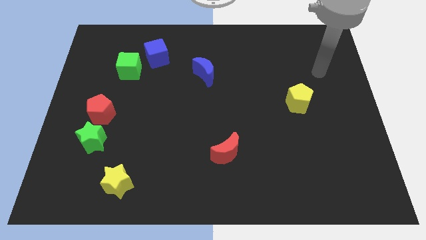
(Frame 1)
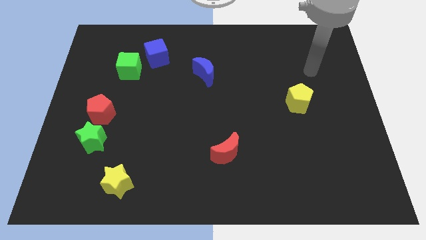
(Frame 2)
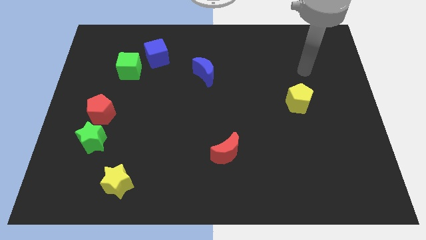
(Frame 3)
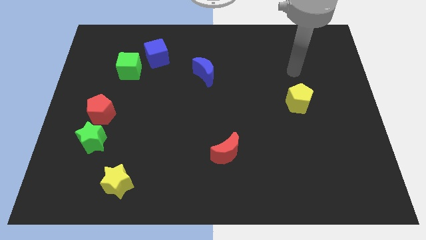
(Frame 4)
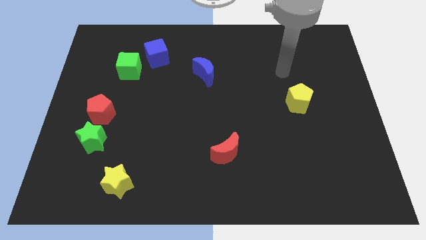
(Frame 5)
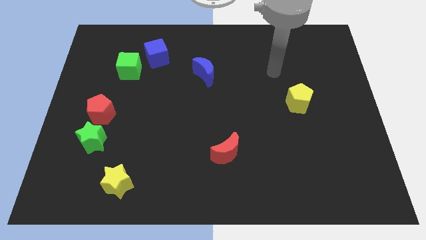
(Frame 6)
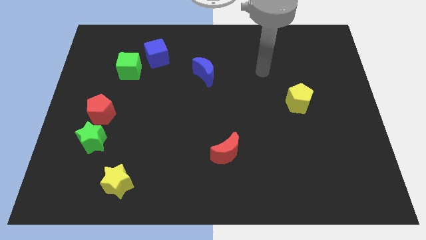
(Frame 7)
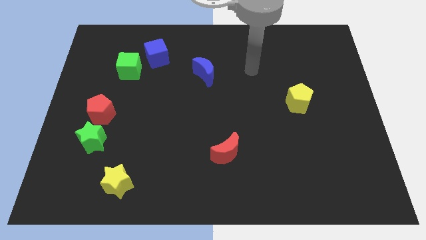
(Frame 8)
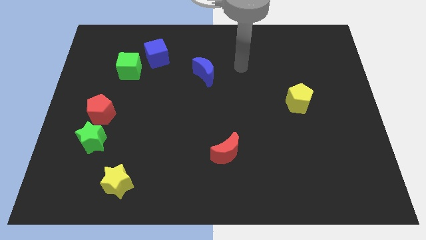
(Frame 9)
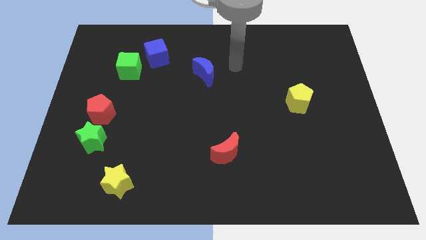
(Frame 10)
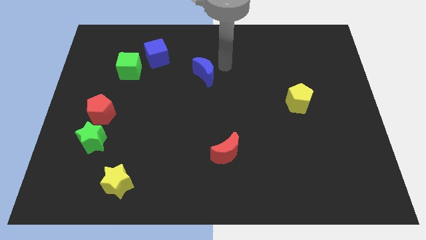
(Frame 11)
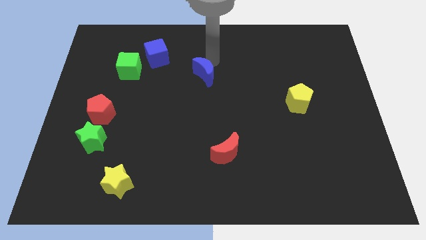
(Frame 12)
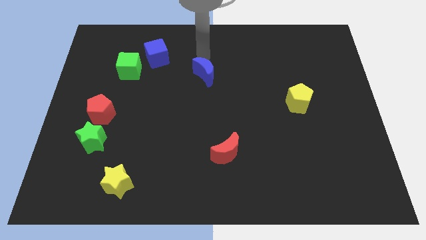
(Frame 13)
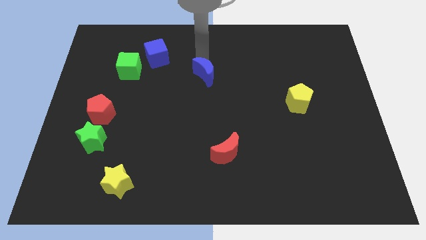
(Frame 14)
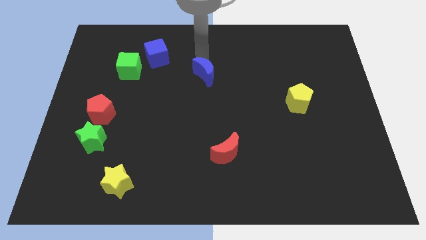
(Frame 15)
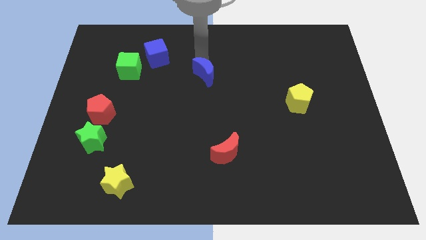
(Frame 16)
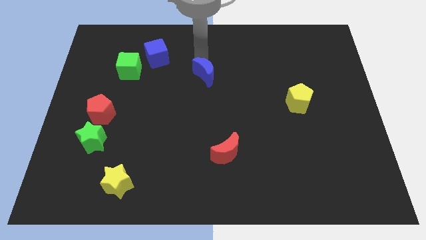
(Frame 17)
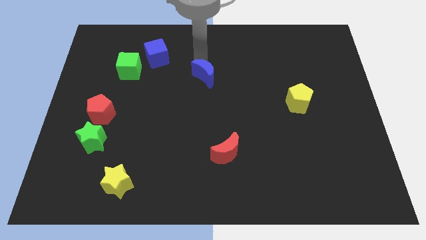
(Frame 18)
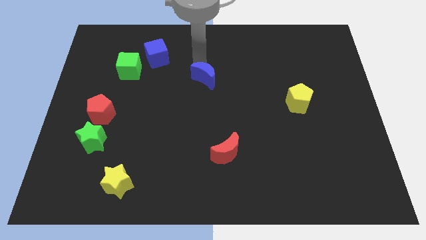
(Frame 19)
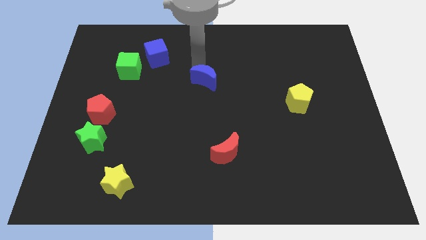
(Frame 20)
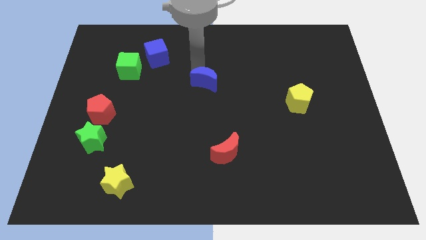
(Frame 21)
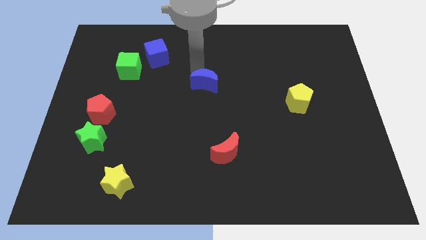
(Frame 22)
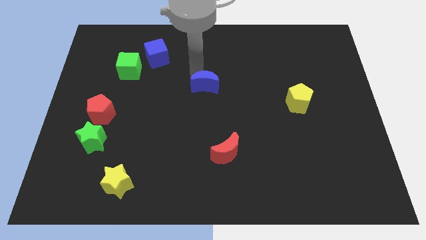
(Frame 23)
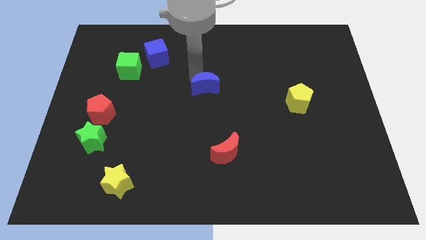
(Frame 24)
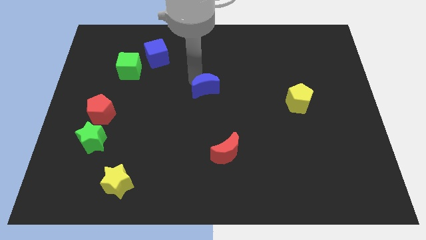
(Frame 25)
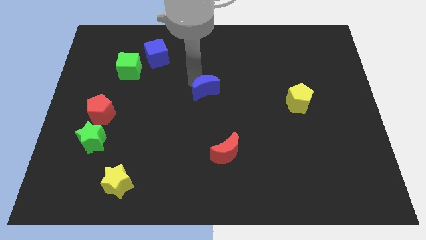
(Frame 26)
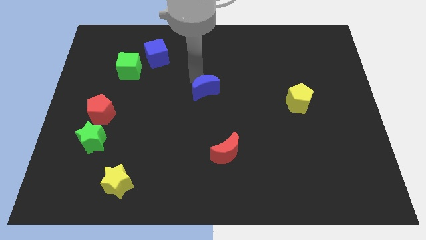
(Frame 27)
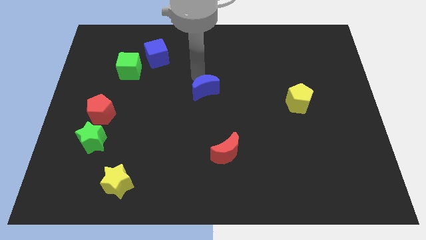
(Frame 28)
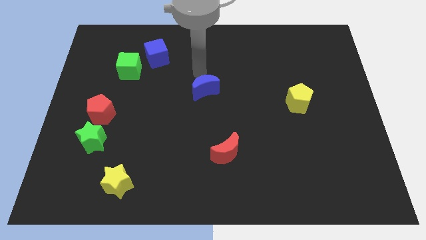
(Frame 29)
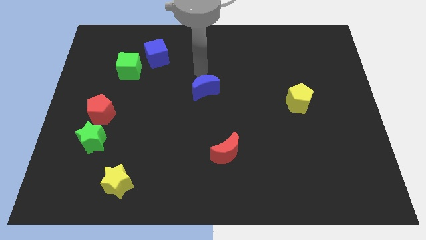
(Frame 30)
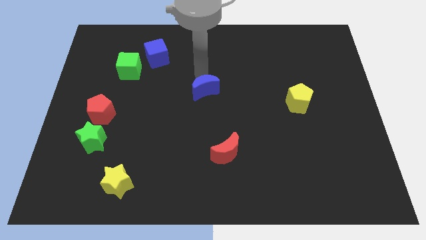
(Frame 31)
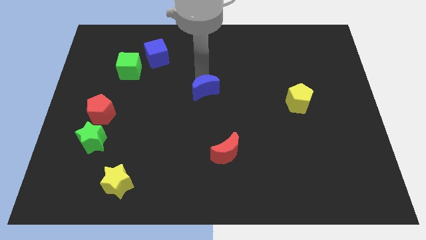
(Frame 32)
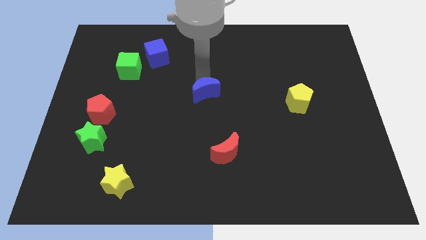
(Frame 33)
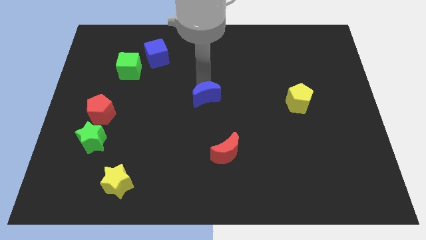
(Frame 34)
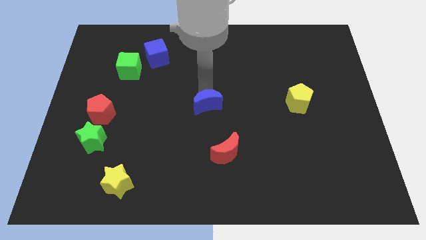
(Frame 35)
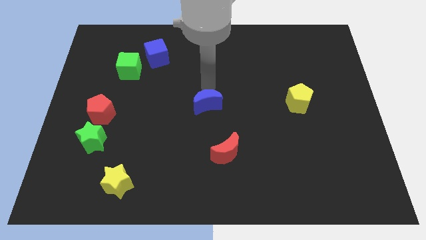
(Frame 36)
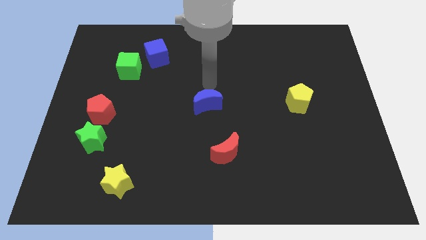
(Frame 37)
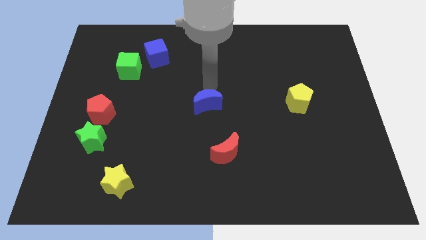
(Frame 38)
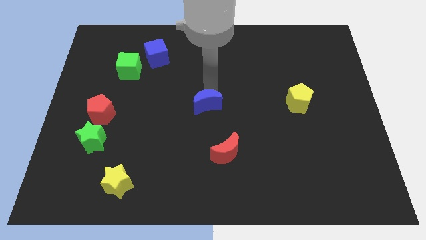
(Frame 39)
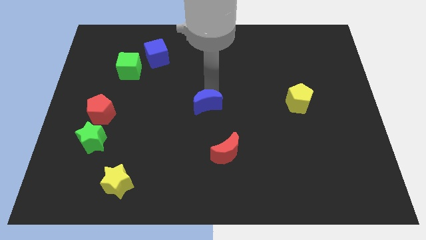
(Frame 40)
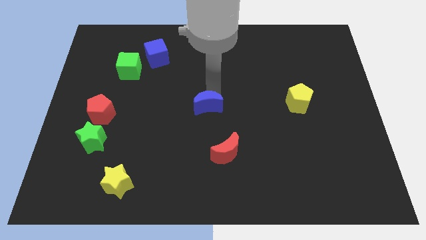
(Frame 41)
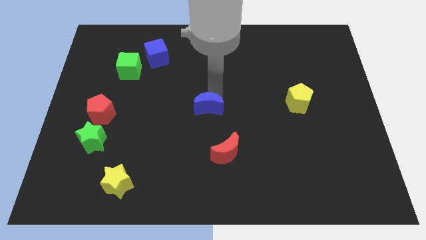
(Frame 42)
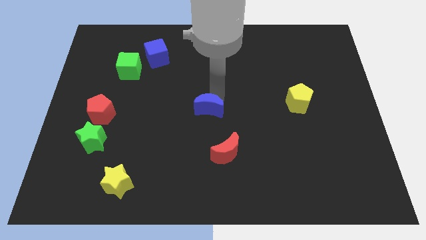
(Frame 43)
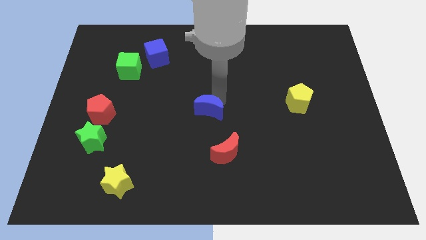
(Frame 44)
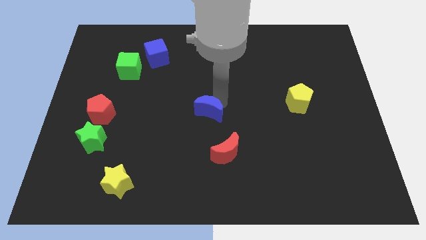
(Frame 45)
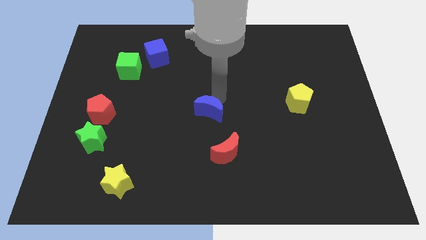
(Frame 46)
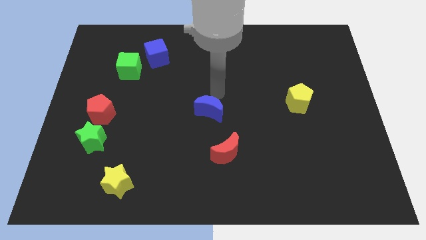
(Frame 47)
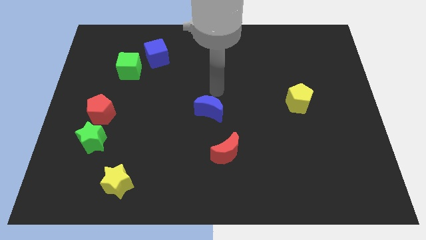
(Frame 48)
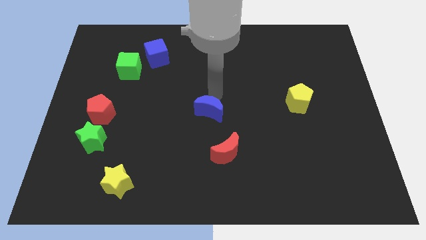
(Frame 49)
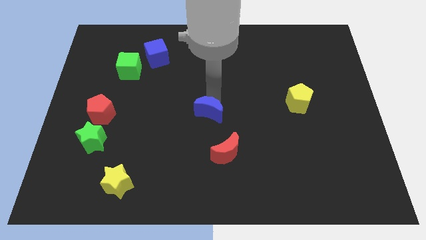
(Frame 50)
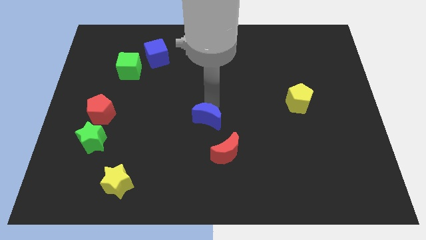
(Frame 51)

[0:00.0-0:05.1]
push the blue moon to the top left of the red moon

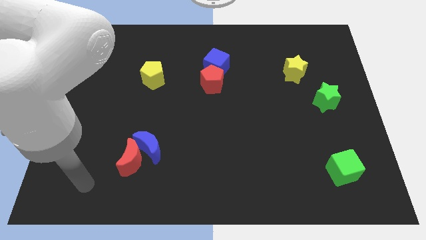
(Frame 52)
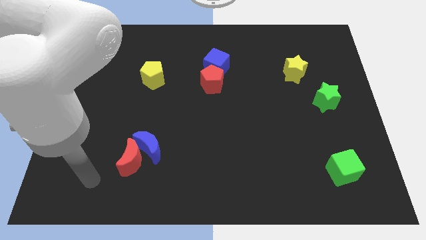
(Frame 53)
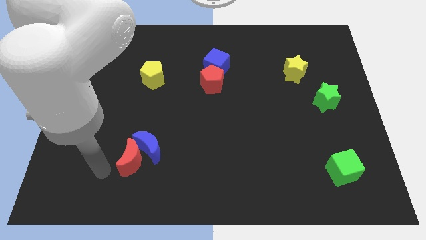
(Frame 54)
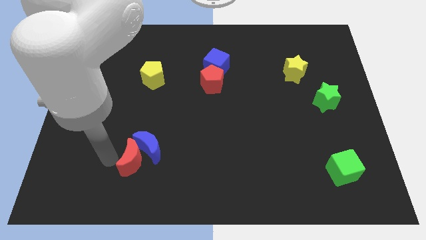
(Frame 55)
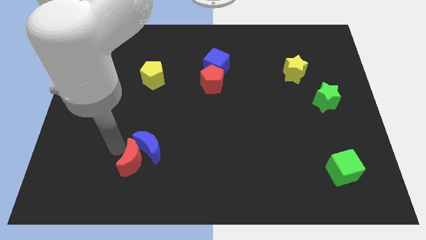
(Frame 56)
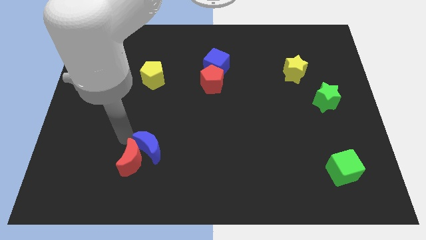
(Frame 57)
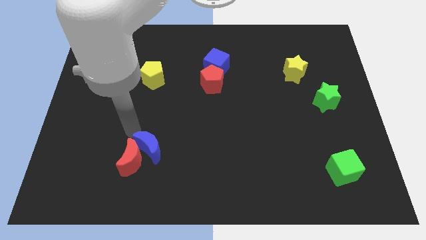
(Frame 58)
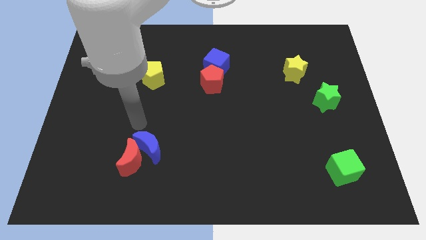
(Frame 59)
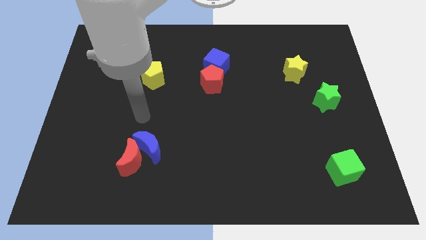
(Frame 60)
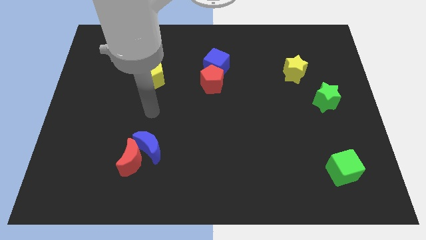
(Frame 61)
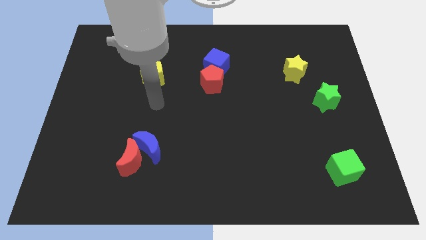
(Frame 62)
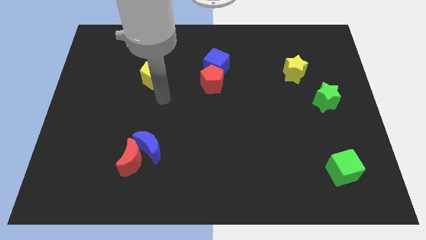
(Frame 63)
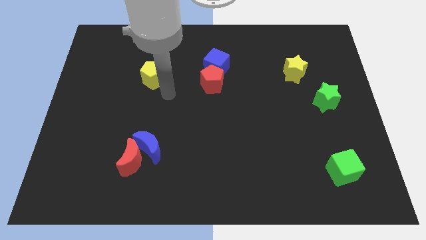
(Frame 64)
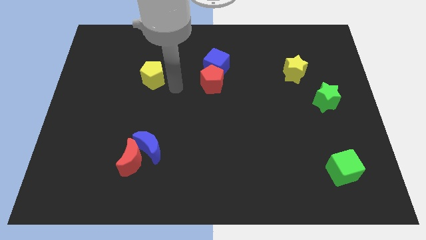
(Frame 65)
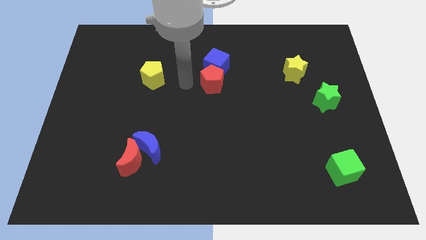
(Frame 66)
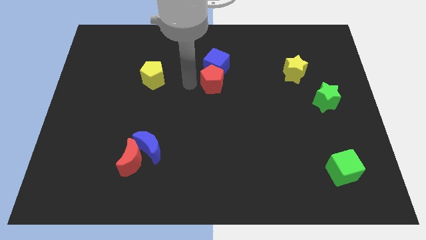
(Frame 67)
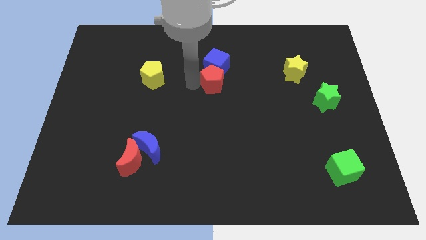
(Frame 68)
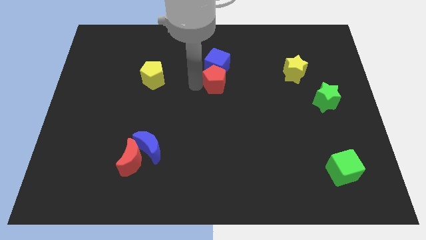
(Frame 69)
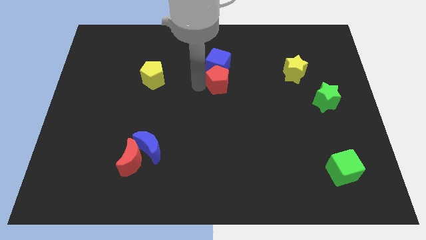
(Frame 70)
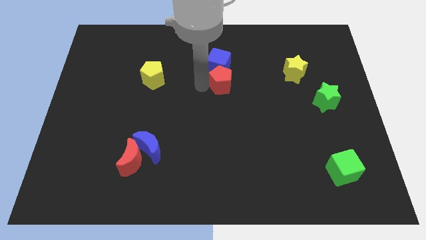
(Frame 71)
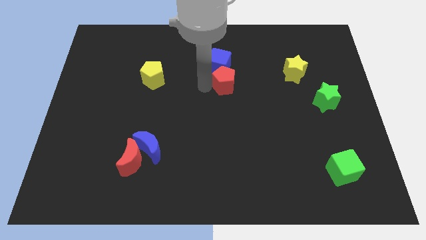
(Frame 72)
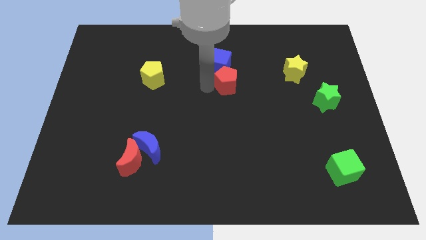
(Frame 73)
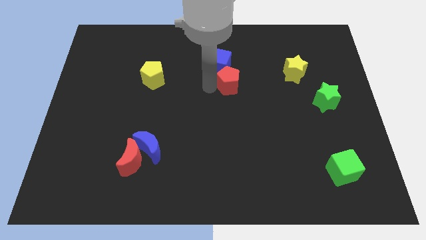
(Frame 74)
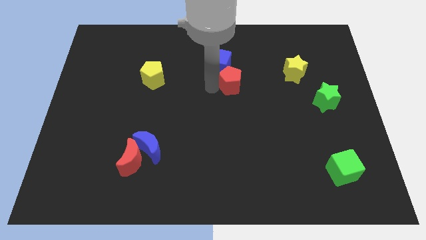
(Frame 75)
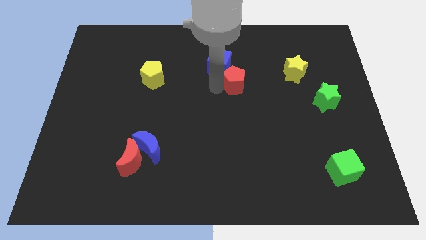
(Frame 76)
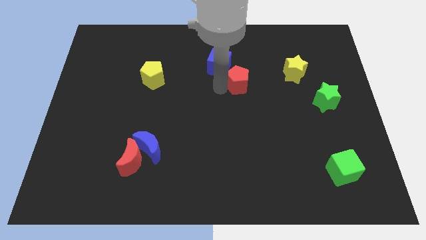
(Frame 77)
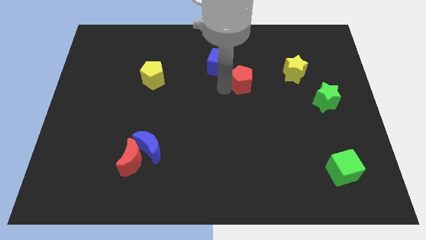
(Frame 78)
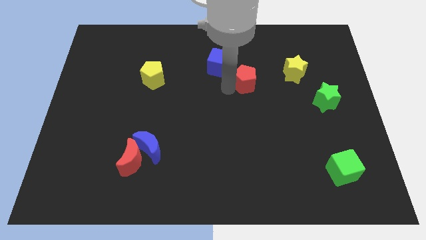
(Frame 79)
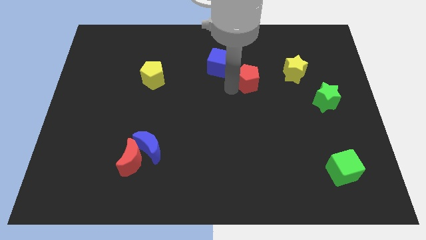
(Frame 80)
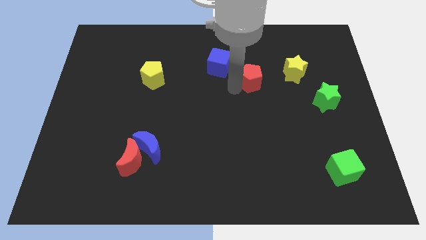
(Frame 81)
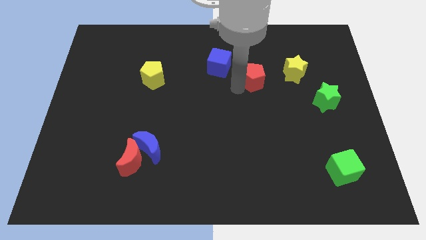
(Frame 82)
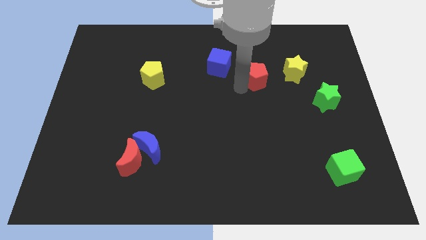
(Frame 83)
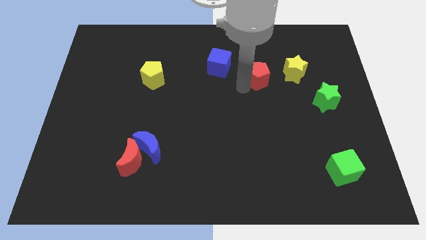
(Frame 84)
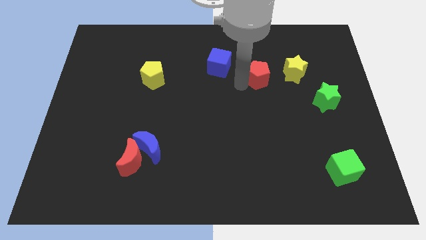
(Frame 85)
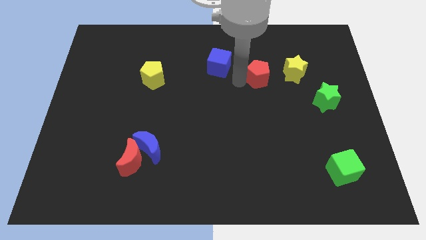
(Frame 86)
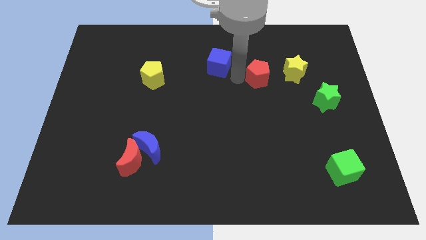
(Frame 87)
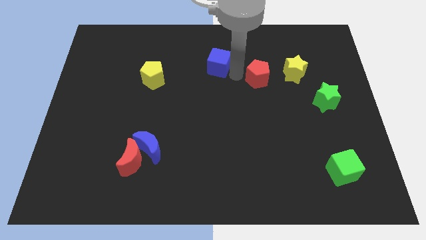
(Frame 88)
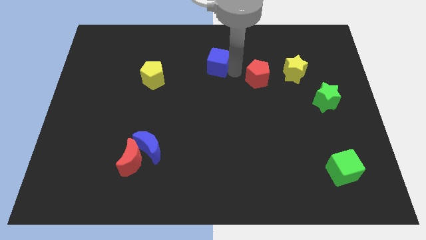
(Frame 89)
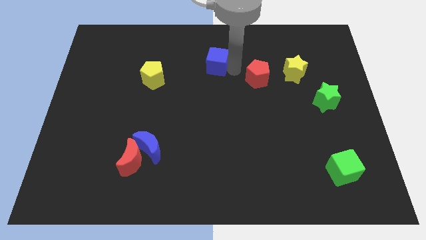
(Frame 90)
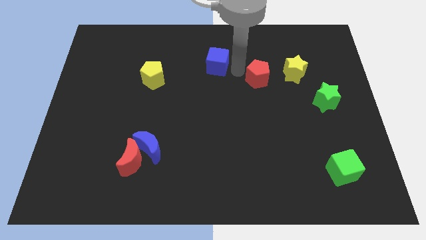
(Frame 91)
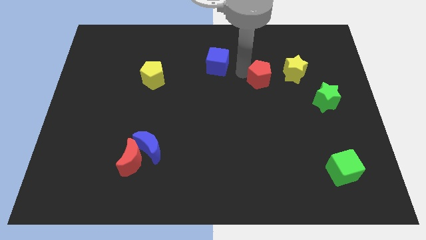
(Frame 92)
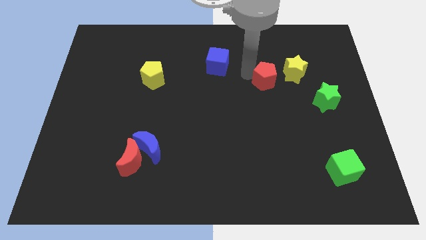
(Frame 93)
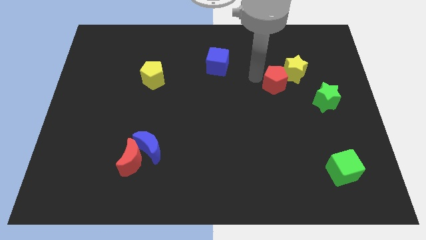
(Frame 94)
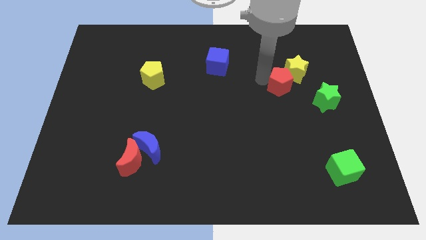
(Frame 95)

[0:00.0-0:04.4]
put the red pentagon to the top left side of the green star
